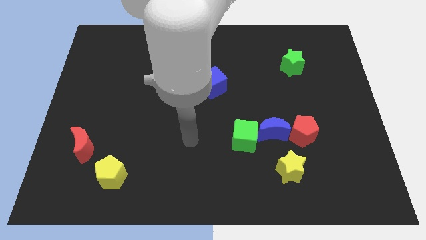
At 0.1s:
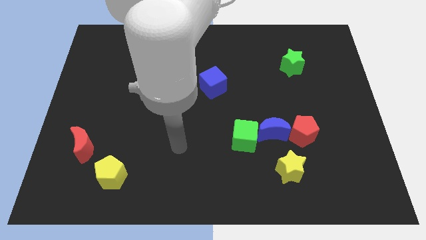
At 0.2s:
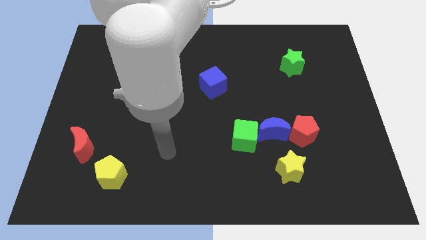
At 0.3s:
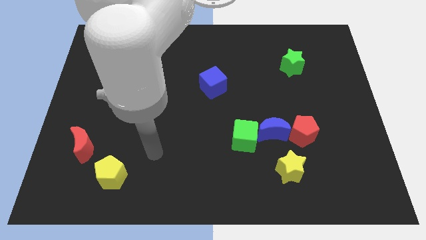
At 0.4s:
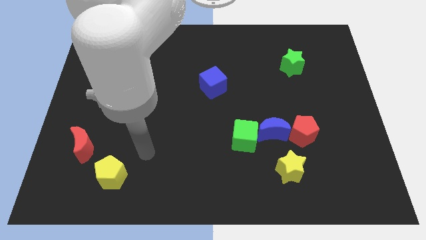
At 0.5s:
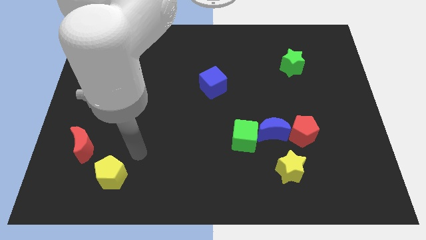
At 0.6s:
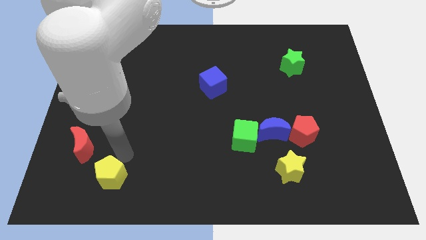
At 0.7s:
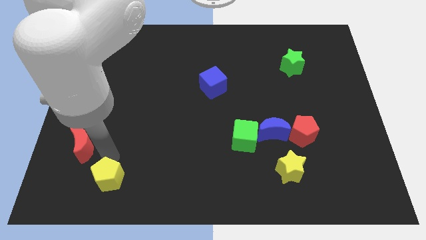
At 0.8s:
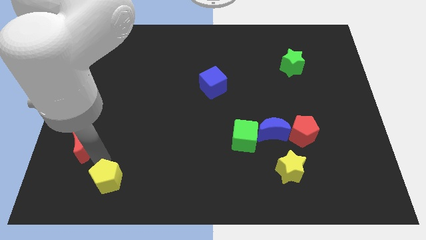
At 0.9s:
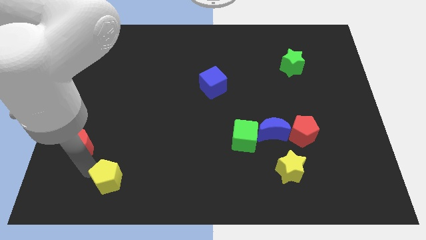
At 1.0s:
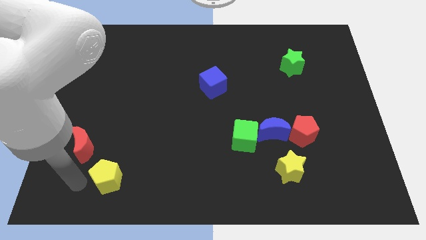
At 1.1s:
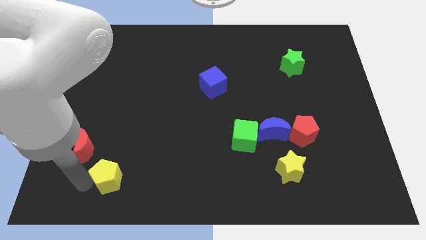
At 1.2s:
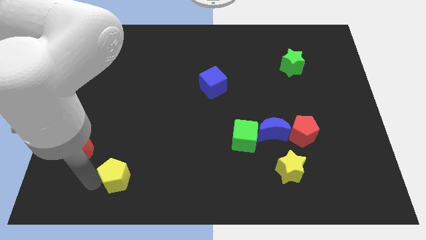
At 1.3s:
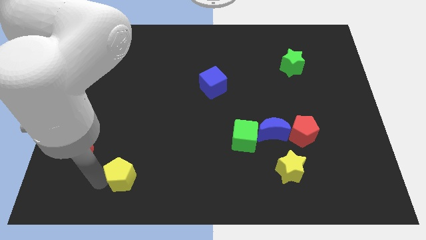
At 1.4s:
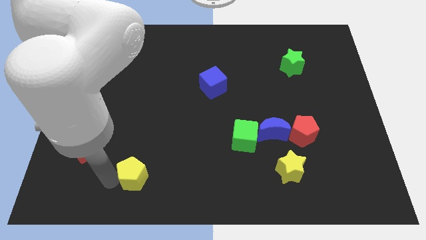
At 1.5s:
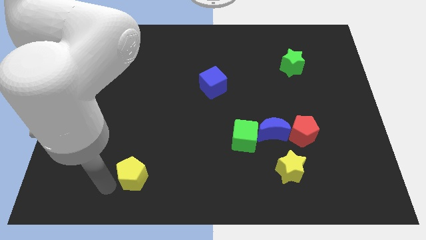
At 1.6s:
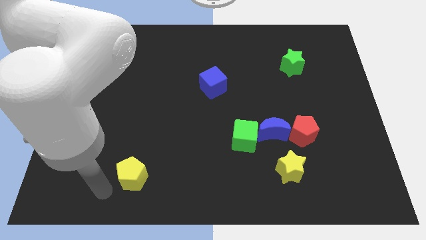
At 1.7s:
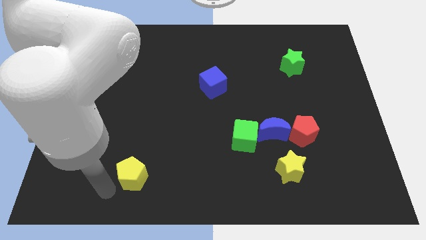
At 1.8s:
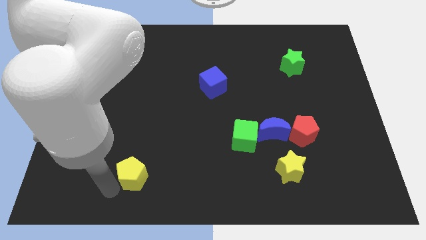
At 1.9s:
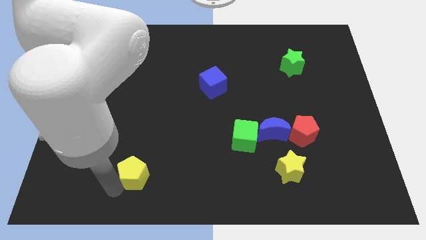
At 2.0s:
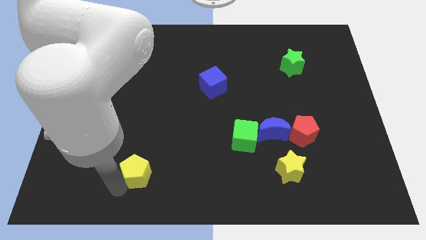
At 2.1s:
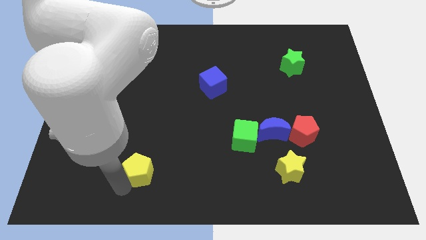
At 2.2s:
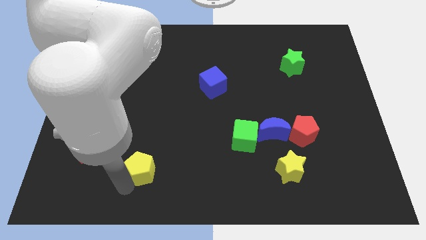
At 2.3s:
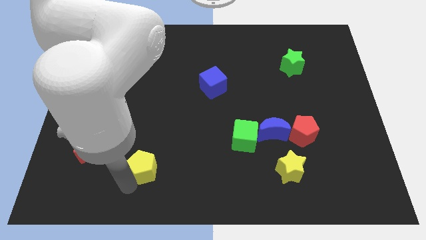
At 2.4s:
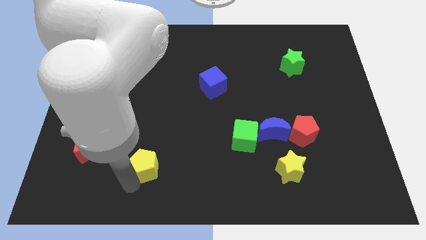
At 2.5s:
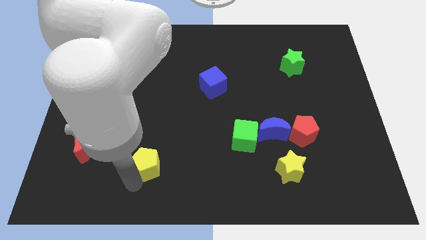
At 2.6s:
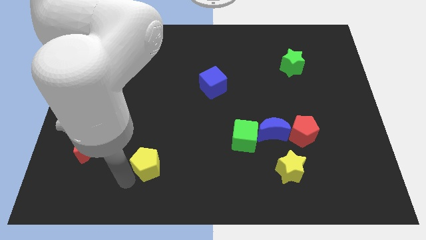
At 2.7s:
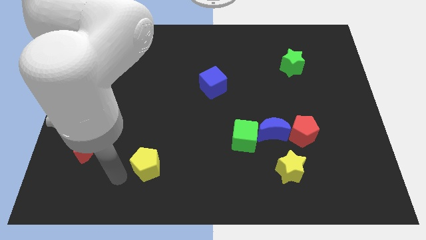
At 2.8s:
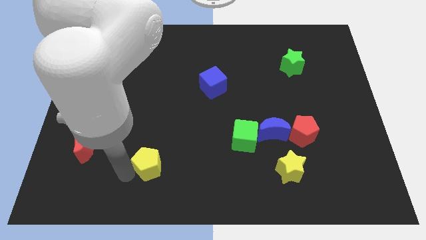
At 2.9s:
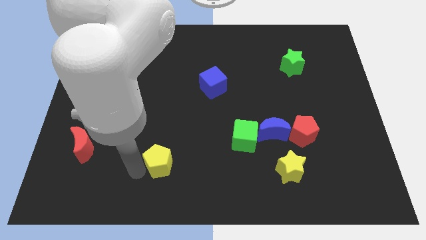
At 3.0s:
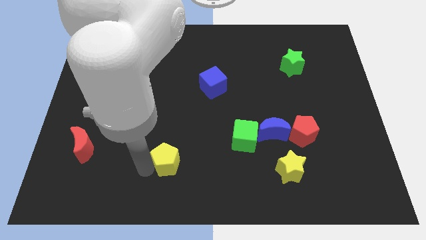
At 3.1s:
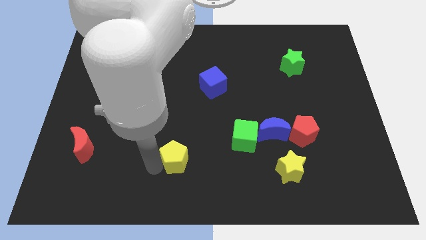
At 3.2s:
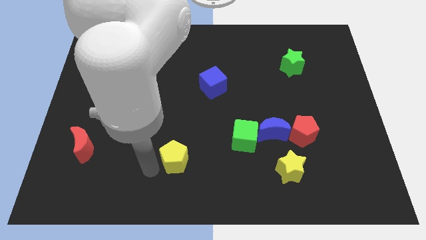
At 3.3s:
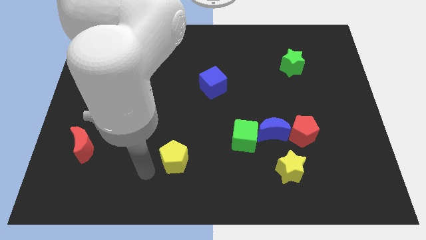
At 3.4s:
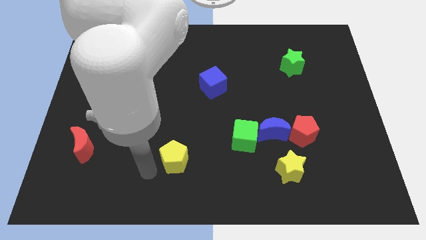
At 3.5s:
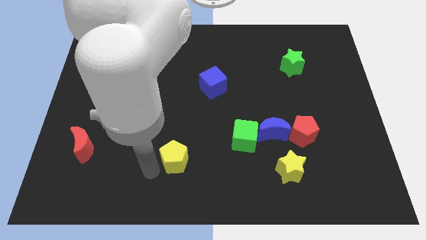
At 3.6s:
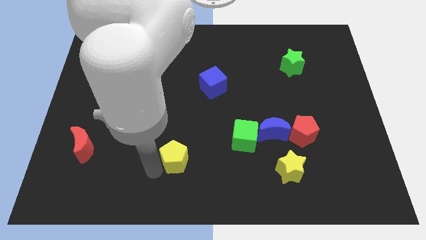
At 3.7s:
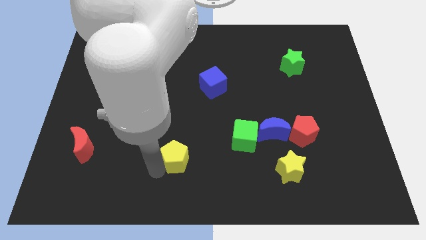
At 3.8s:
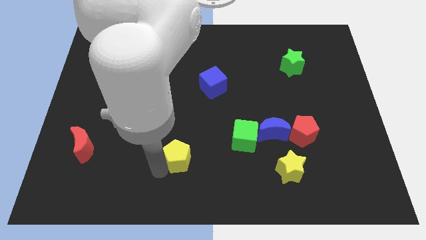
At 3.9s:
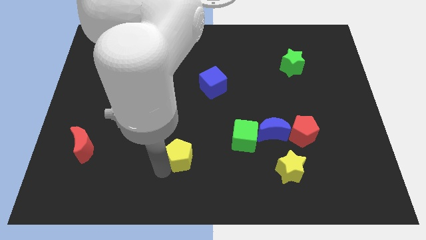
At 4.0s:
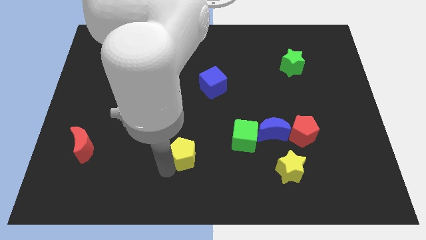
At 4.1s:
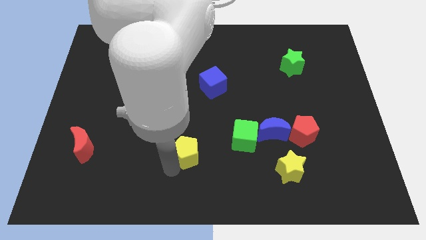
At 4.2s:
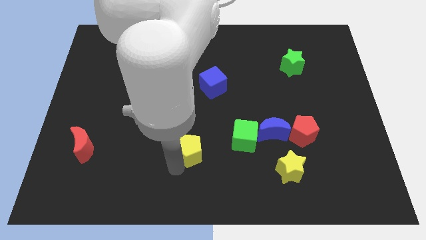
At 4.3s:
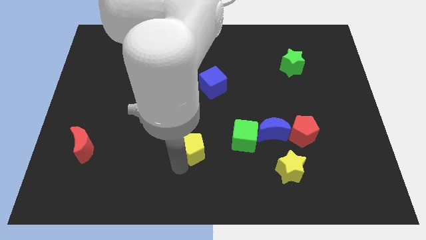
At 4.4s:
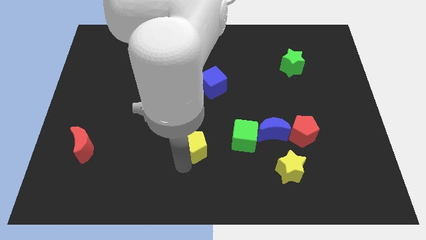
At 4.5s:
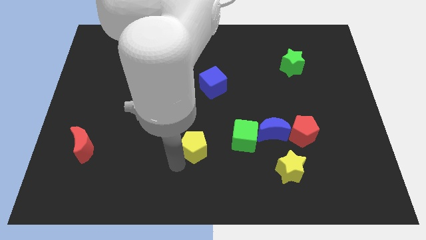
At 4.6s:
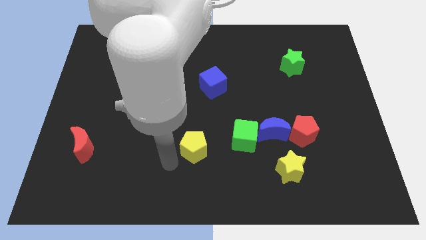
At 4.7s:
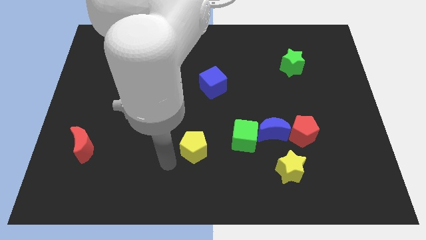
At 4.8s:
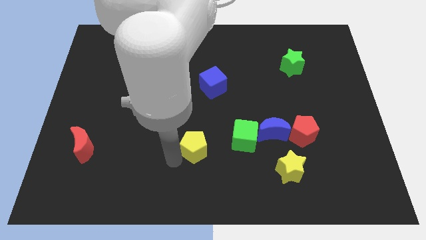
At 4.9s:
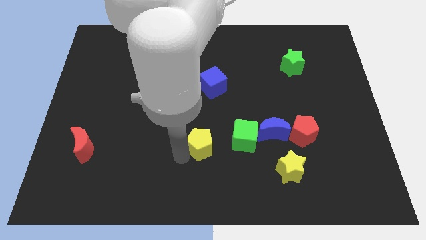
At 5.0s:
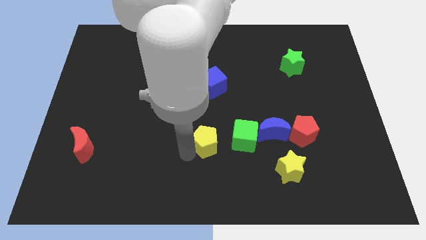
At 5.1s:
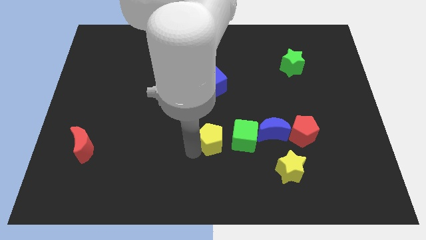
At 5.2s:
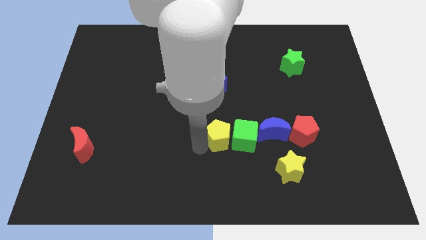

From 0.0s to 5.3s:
push the yellow pentagon to the green cube

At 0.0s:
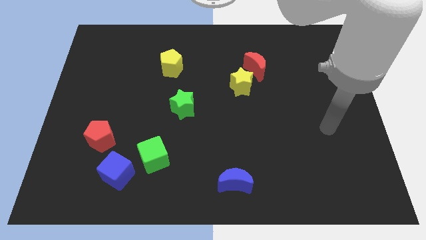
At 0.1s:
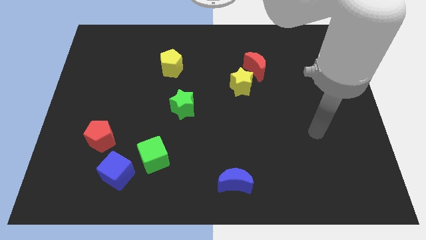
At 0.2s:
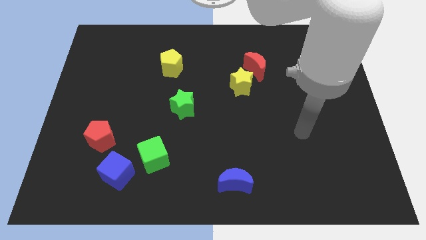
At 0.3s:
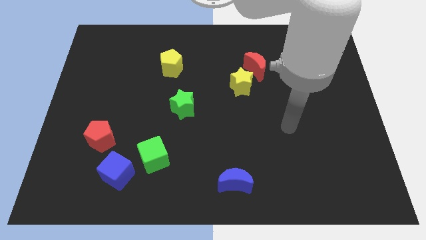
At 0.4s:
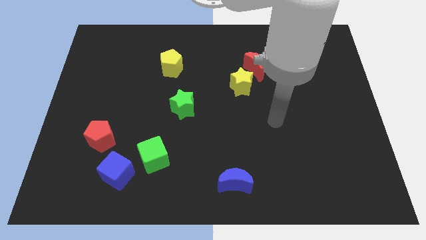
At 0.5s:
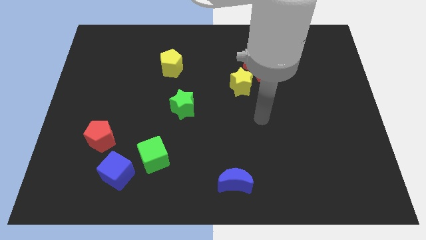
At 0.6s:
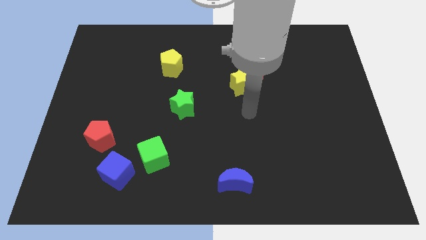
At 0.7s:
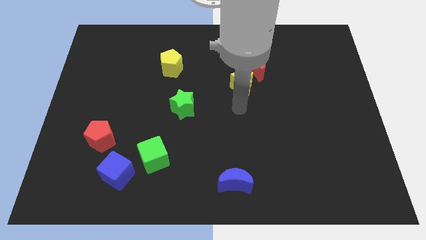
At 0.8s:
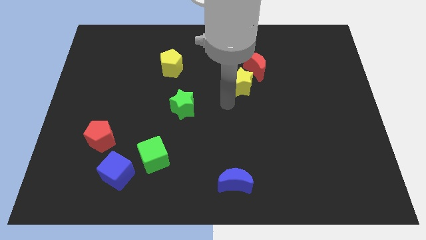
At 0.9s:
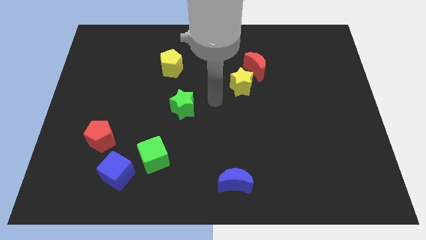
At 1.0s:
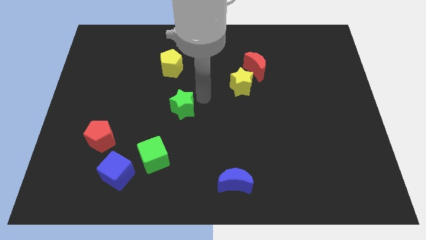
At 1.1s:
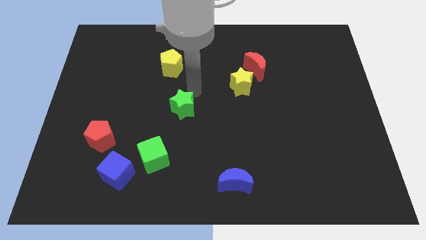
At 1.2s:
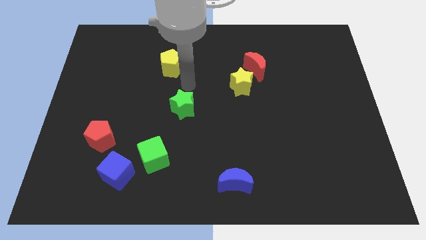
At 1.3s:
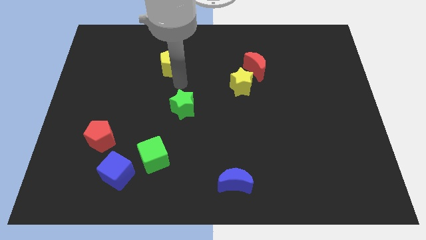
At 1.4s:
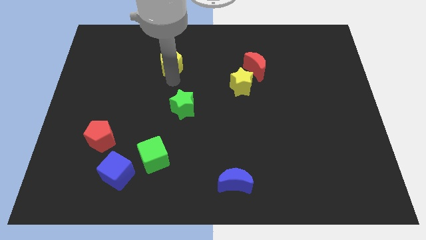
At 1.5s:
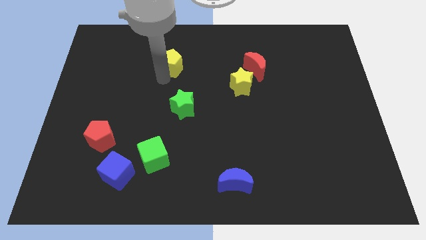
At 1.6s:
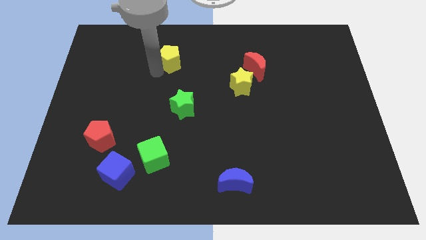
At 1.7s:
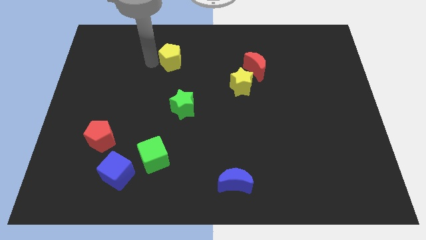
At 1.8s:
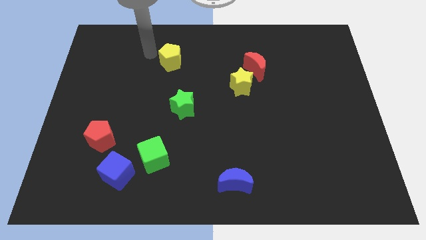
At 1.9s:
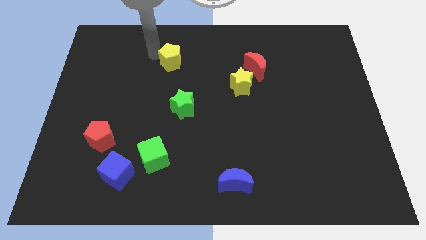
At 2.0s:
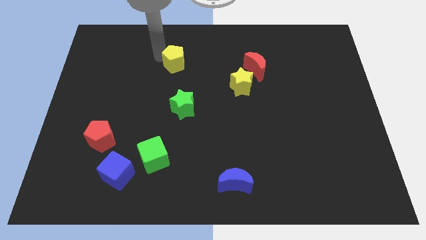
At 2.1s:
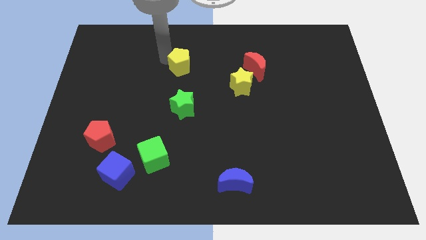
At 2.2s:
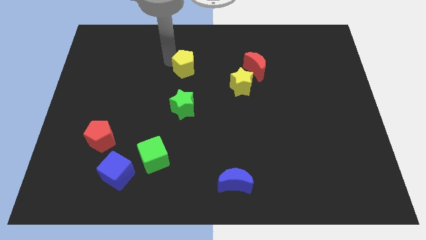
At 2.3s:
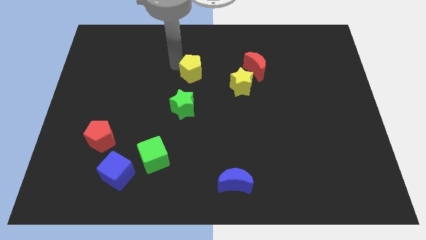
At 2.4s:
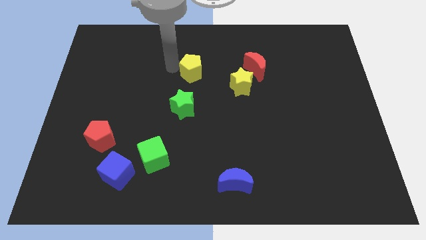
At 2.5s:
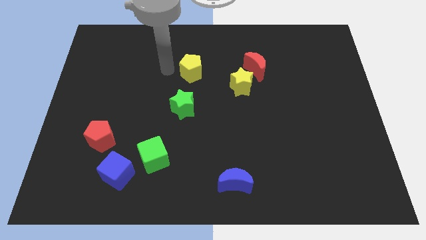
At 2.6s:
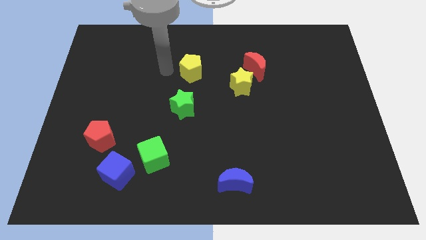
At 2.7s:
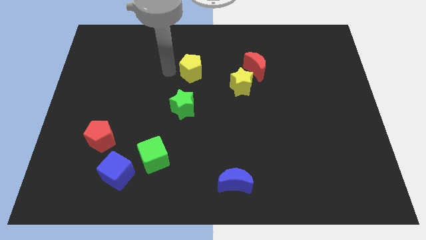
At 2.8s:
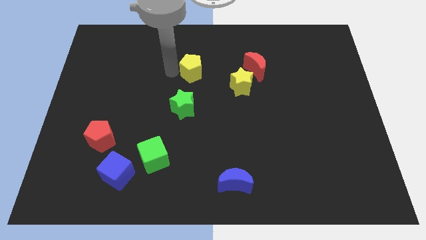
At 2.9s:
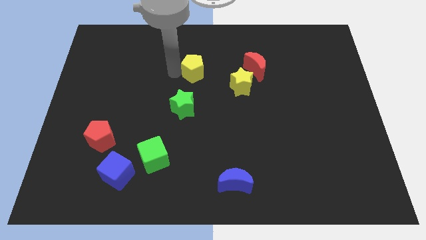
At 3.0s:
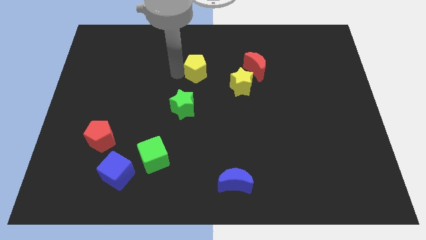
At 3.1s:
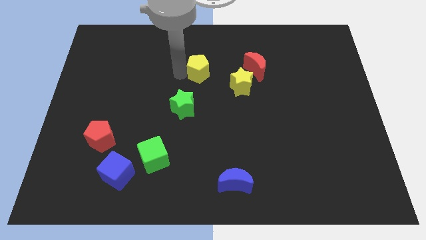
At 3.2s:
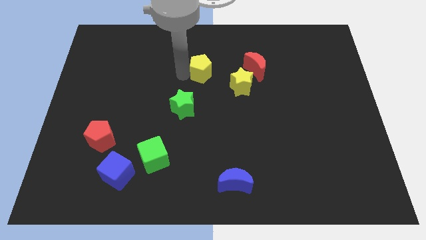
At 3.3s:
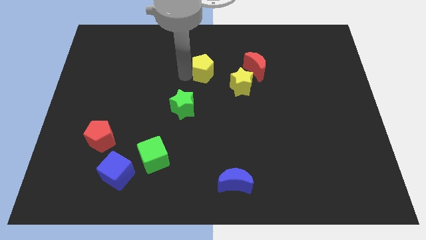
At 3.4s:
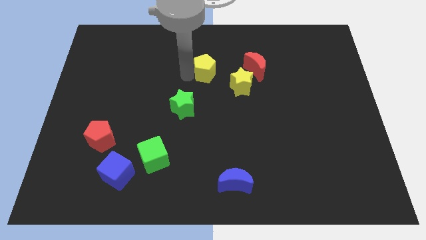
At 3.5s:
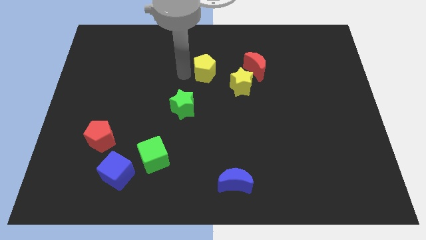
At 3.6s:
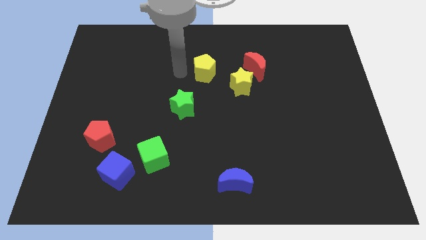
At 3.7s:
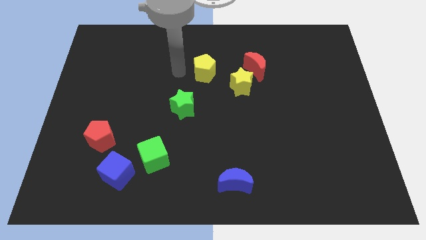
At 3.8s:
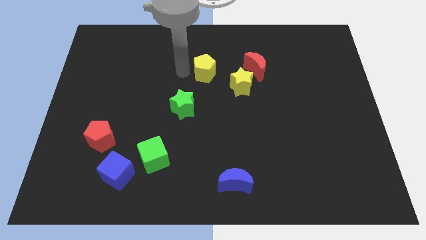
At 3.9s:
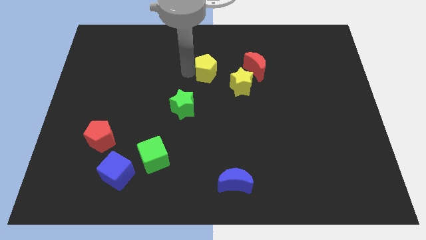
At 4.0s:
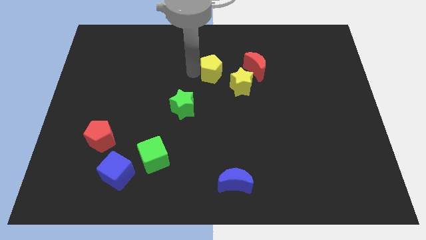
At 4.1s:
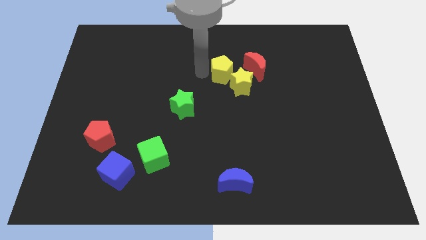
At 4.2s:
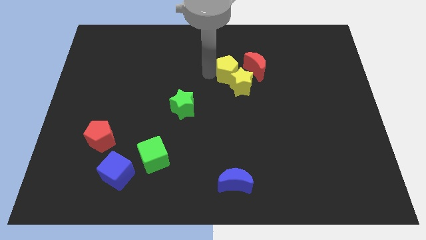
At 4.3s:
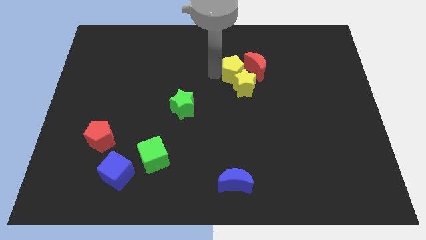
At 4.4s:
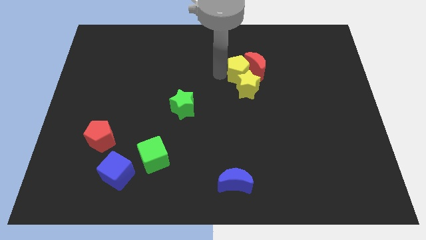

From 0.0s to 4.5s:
move the yellow pentagon towards the red moon
